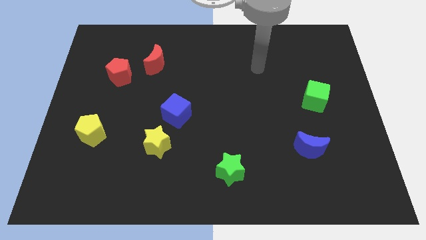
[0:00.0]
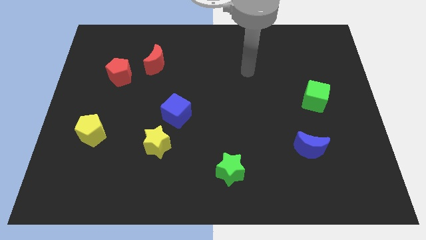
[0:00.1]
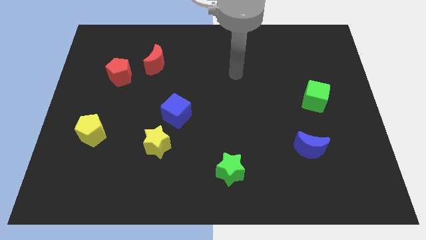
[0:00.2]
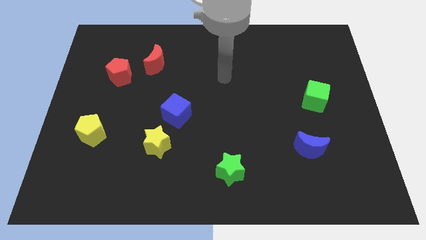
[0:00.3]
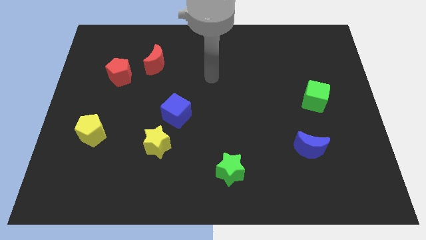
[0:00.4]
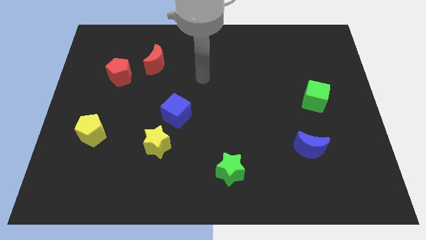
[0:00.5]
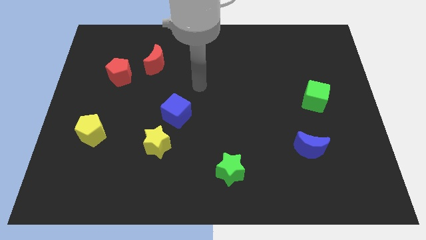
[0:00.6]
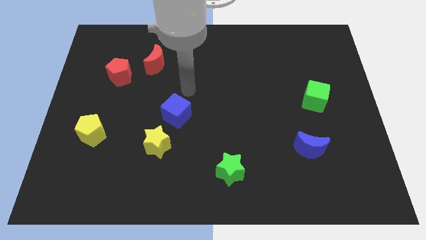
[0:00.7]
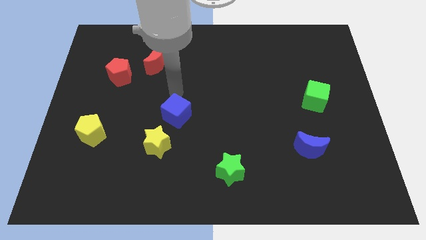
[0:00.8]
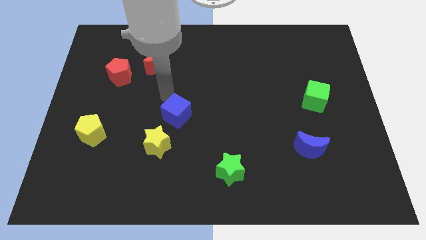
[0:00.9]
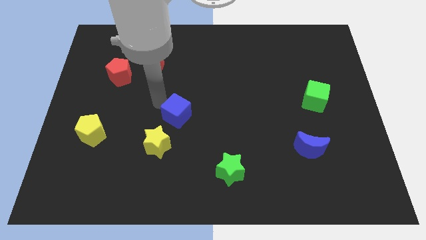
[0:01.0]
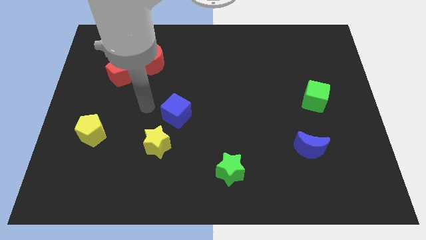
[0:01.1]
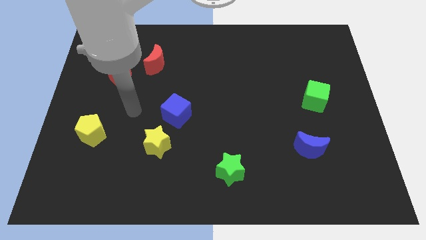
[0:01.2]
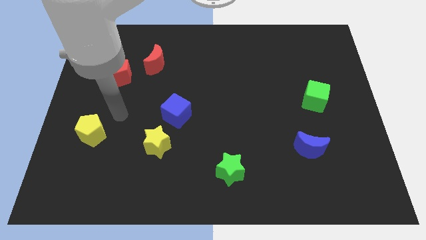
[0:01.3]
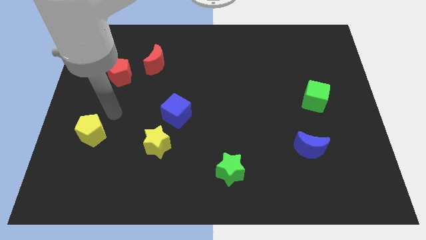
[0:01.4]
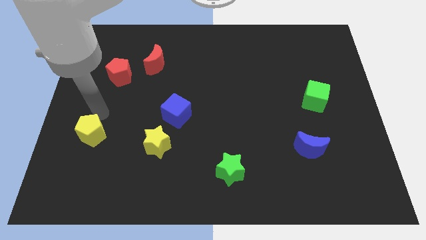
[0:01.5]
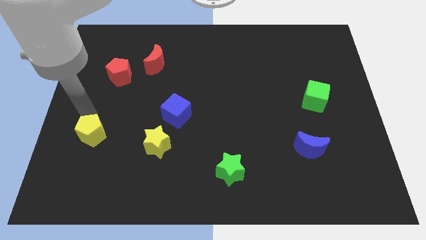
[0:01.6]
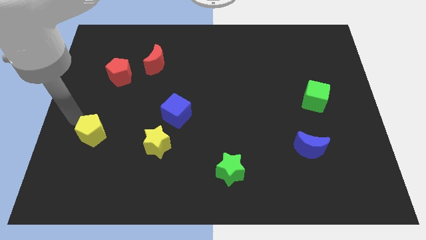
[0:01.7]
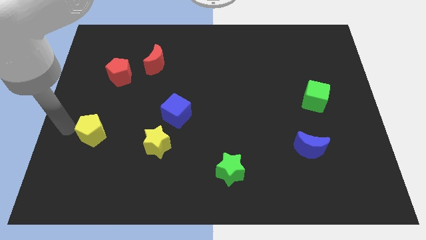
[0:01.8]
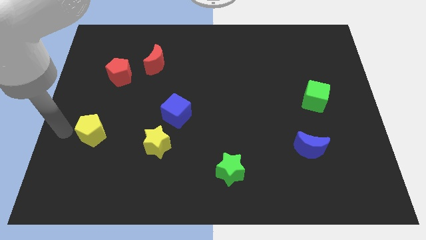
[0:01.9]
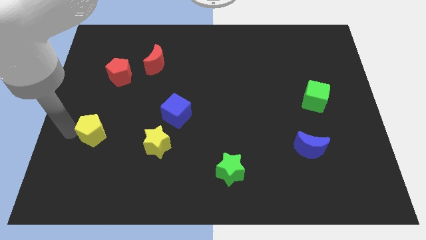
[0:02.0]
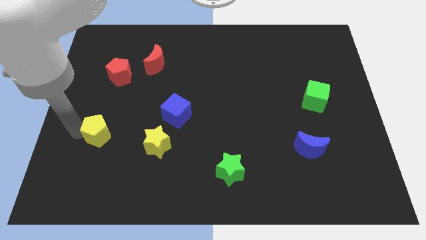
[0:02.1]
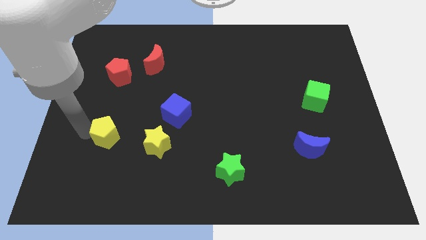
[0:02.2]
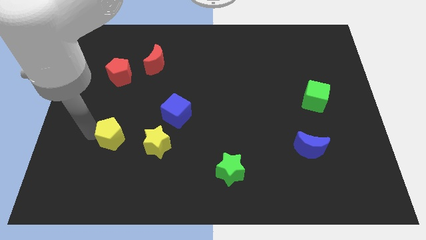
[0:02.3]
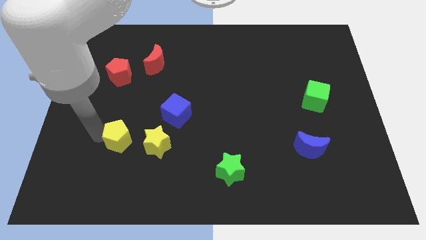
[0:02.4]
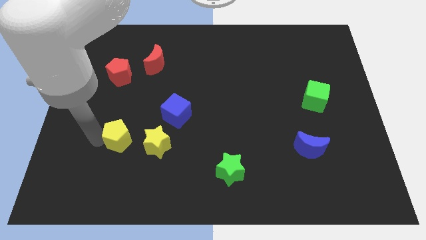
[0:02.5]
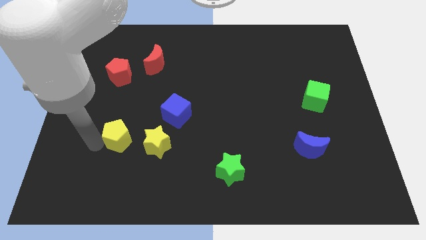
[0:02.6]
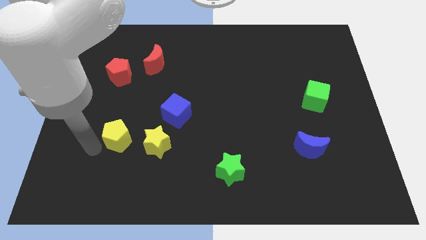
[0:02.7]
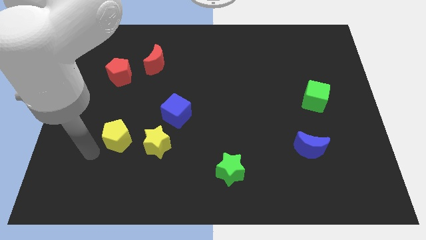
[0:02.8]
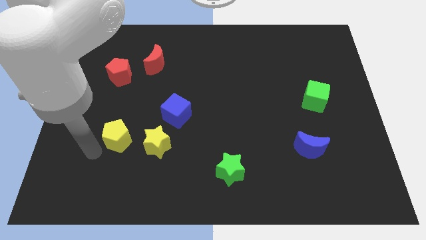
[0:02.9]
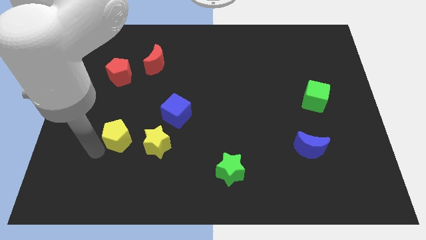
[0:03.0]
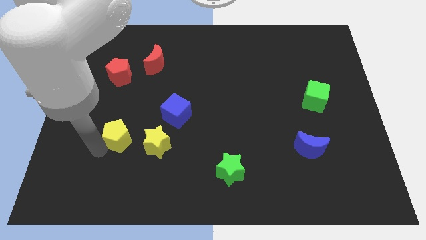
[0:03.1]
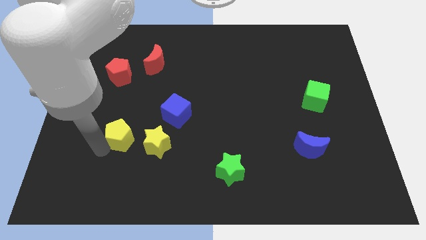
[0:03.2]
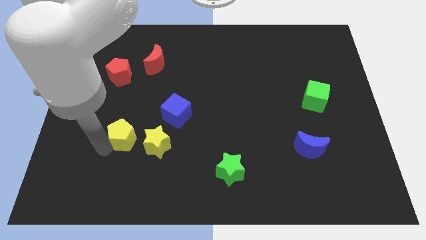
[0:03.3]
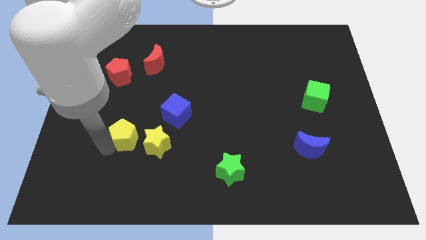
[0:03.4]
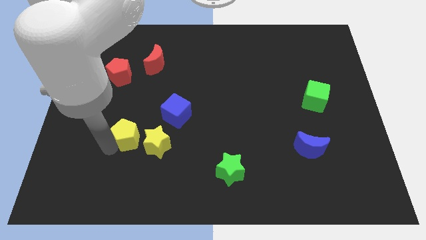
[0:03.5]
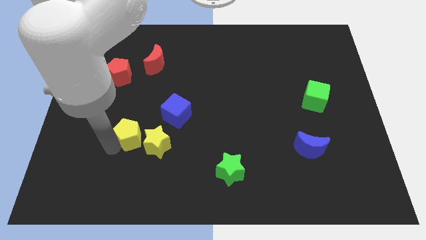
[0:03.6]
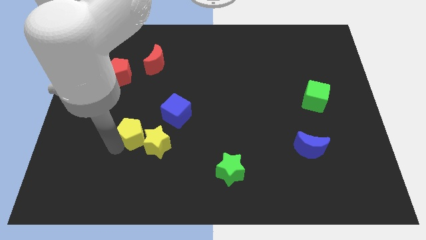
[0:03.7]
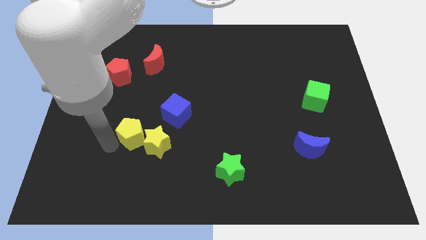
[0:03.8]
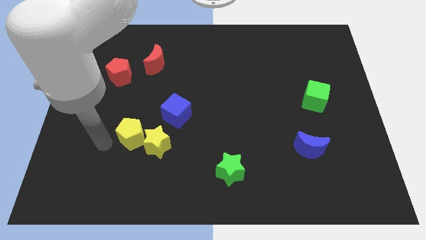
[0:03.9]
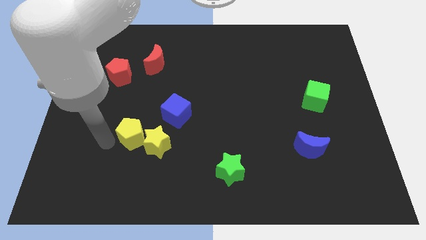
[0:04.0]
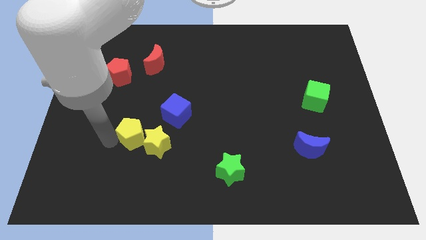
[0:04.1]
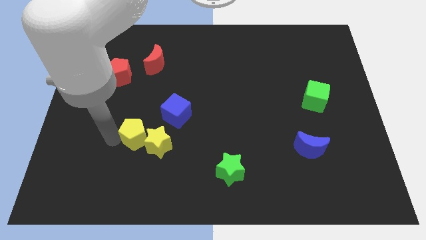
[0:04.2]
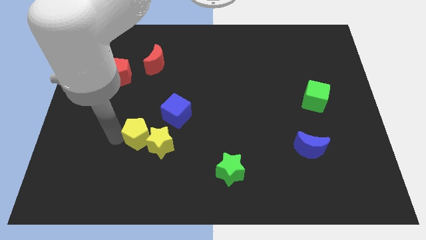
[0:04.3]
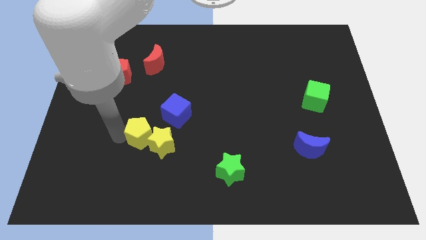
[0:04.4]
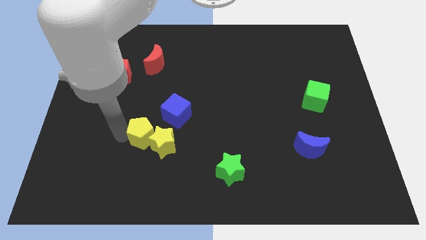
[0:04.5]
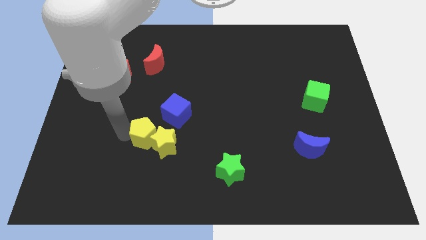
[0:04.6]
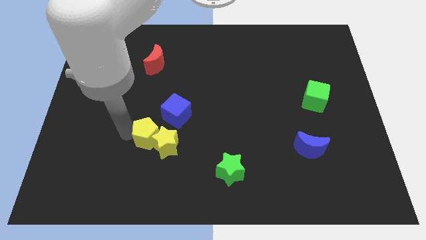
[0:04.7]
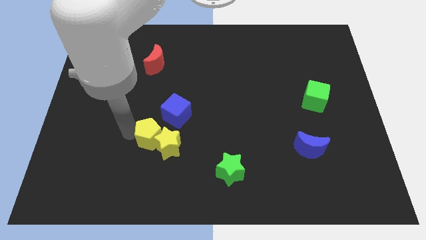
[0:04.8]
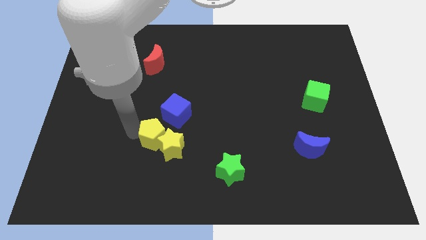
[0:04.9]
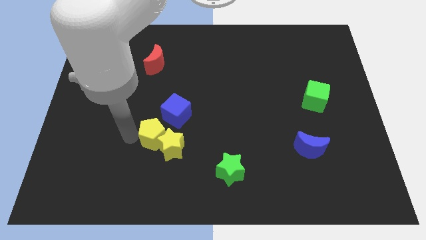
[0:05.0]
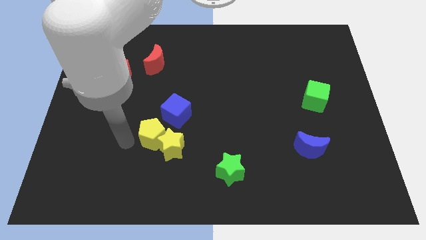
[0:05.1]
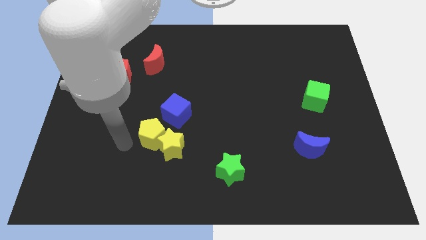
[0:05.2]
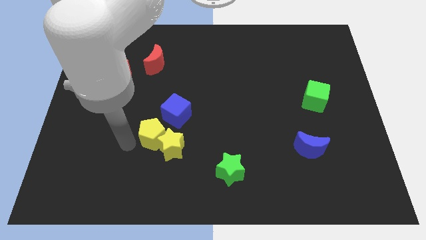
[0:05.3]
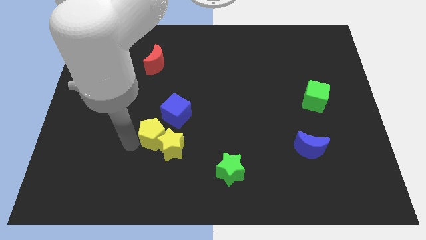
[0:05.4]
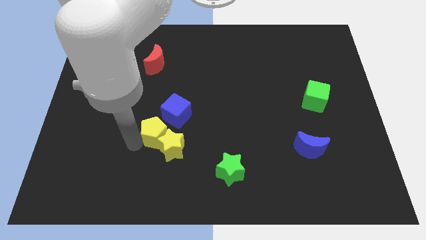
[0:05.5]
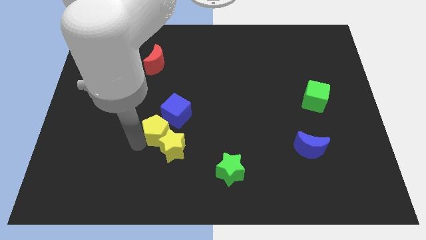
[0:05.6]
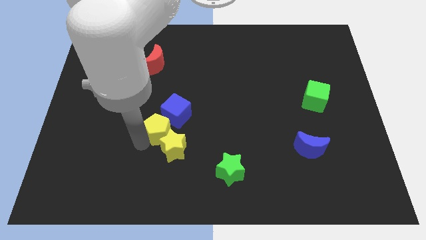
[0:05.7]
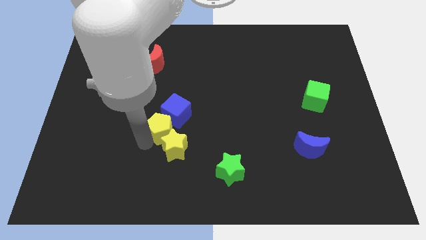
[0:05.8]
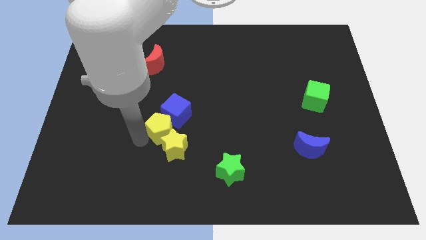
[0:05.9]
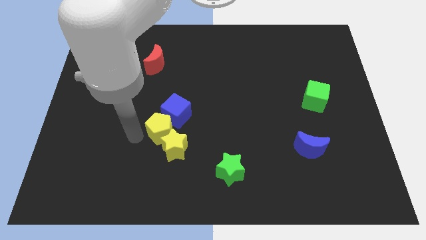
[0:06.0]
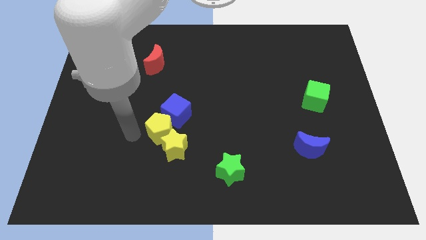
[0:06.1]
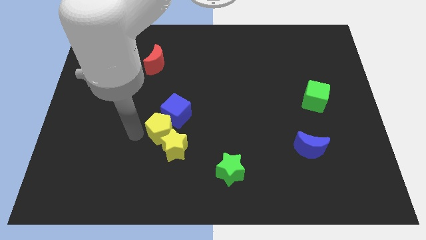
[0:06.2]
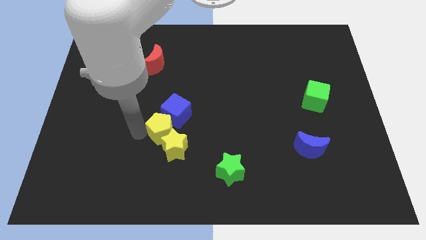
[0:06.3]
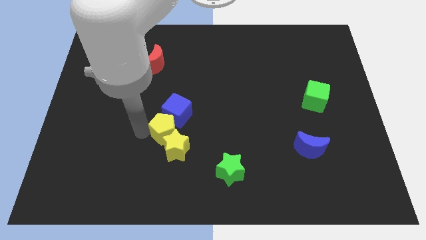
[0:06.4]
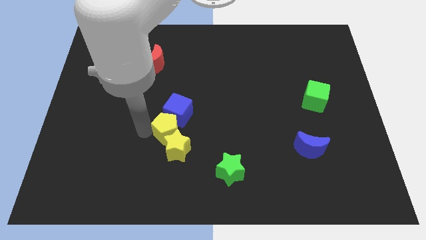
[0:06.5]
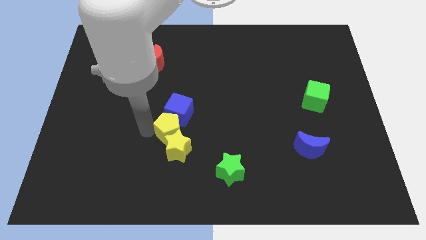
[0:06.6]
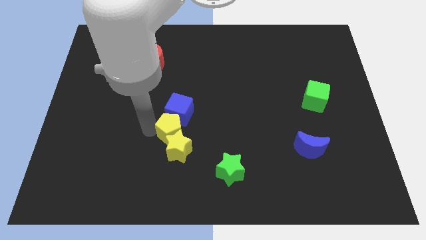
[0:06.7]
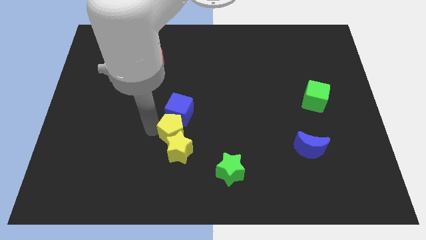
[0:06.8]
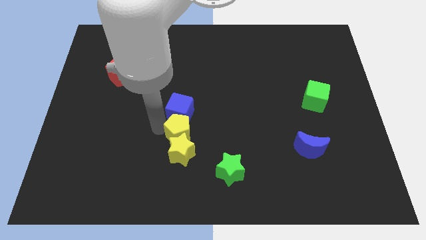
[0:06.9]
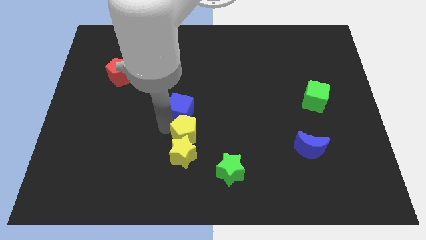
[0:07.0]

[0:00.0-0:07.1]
slide the yellow pentagon to the right

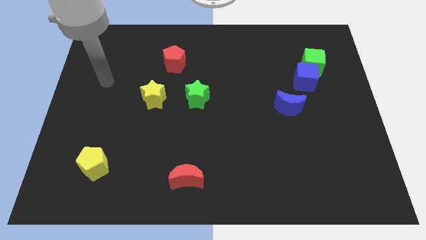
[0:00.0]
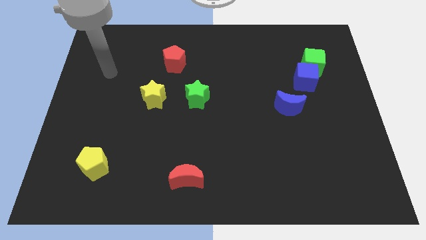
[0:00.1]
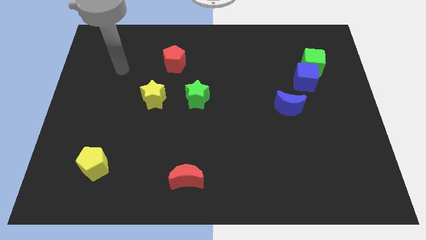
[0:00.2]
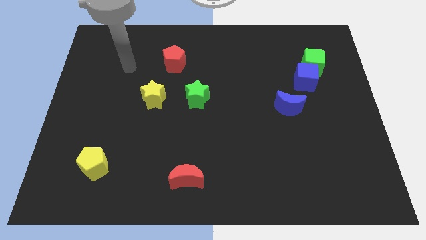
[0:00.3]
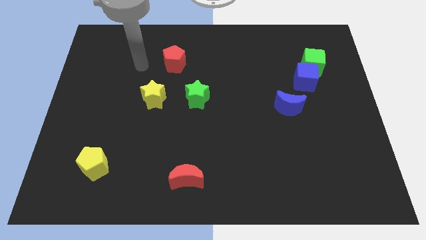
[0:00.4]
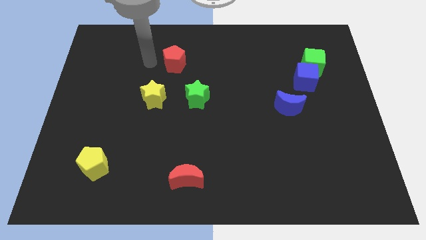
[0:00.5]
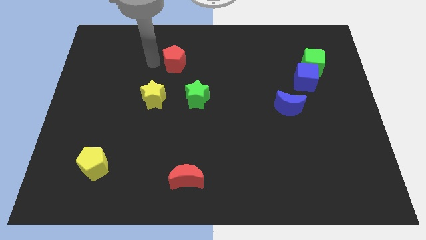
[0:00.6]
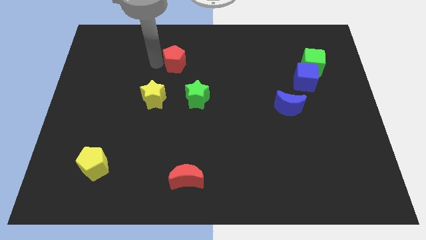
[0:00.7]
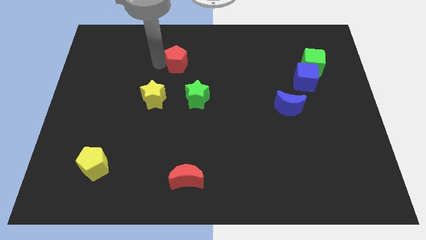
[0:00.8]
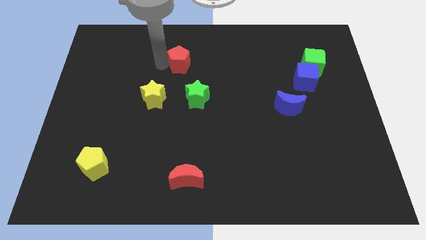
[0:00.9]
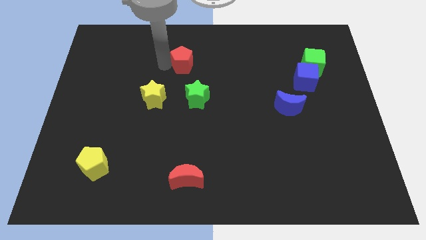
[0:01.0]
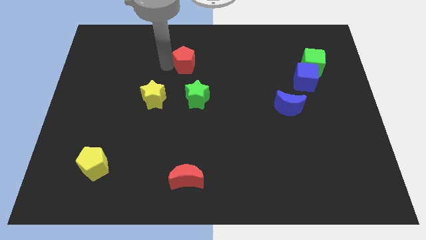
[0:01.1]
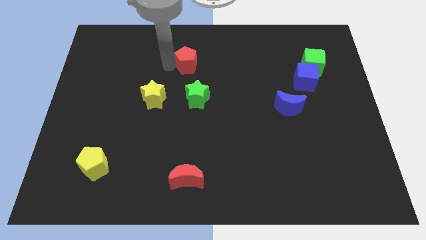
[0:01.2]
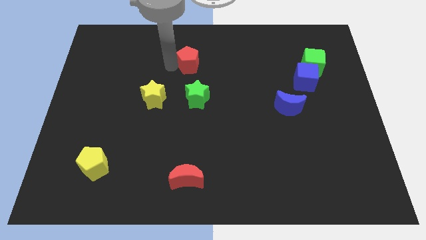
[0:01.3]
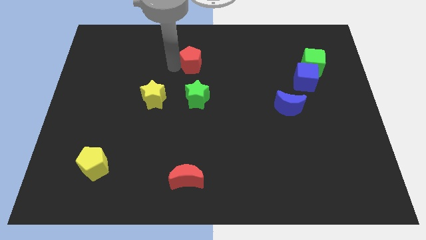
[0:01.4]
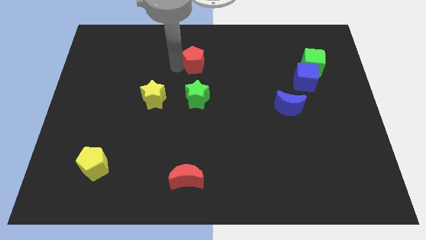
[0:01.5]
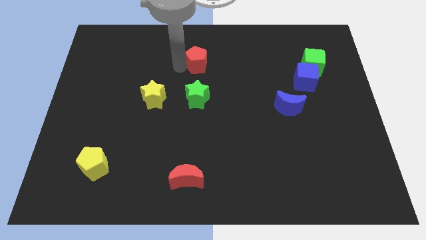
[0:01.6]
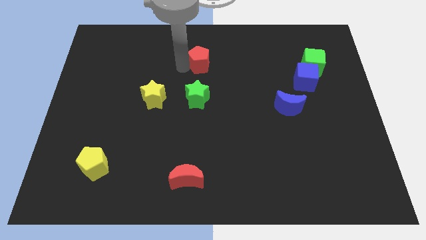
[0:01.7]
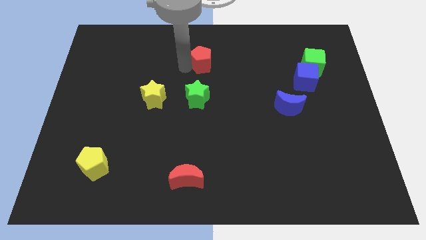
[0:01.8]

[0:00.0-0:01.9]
slightly push the red pentagon right
